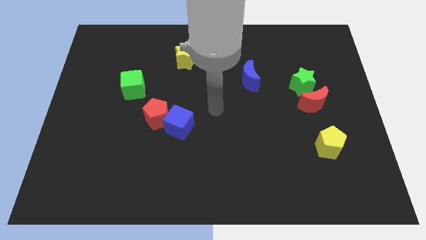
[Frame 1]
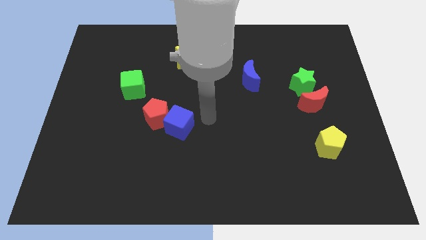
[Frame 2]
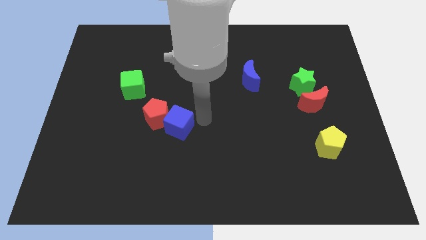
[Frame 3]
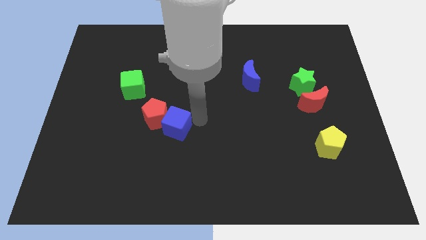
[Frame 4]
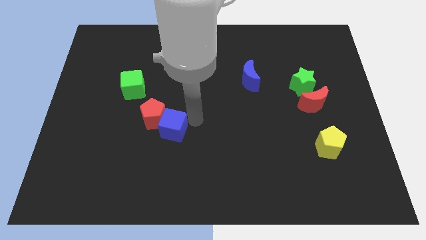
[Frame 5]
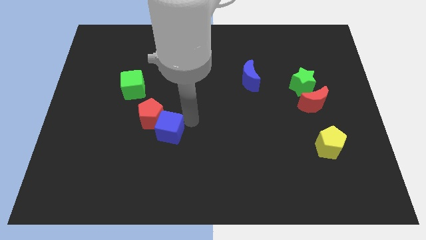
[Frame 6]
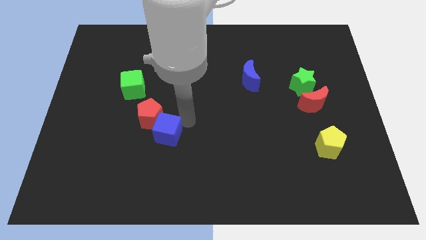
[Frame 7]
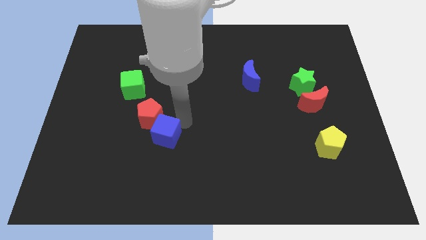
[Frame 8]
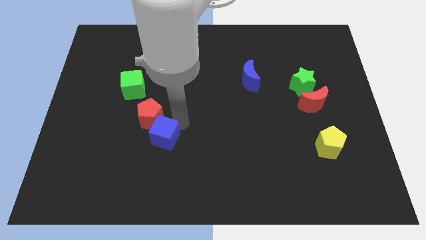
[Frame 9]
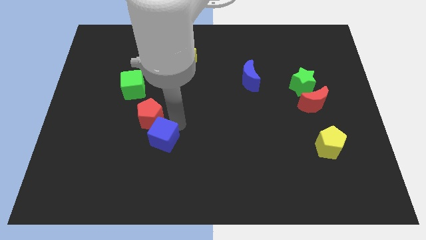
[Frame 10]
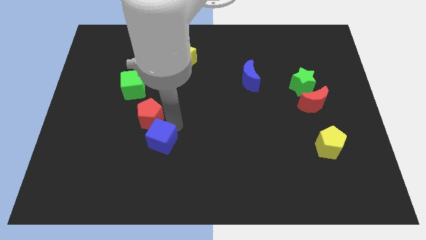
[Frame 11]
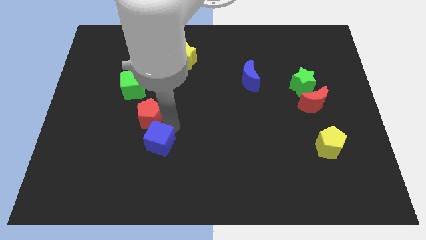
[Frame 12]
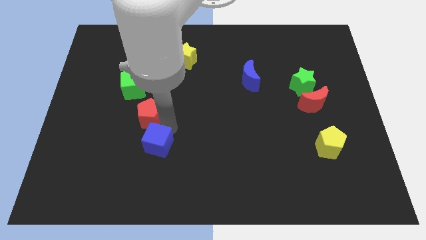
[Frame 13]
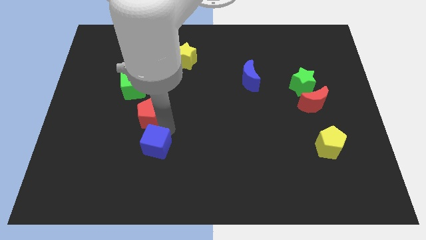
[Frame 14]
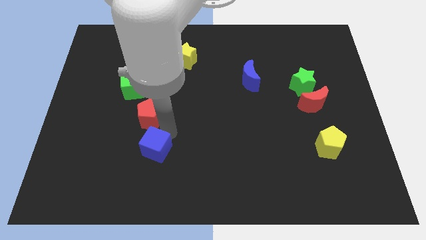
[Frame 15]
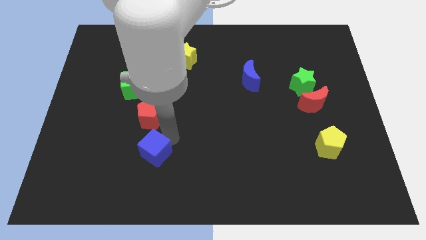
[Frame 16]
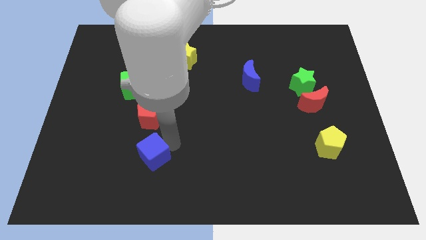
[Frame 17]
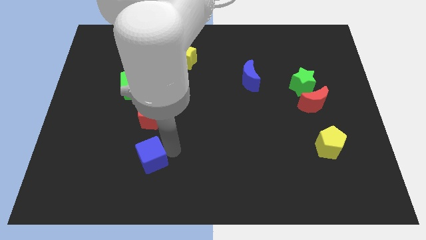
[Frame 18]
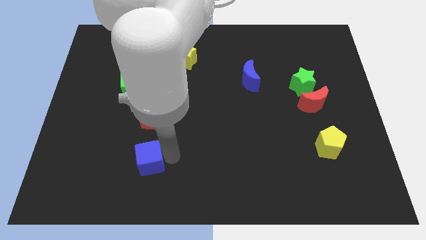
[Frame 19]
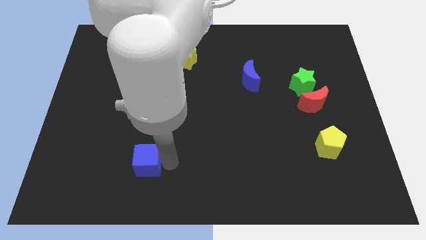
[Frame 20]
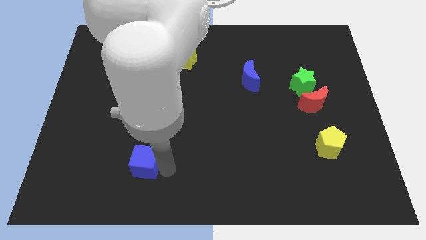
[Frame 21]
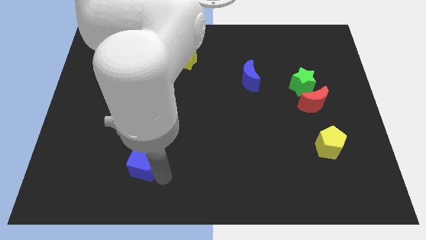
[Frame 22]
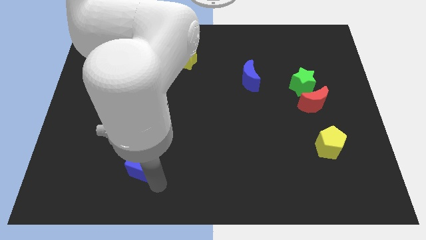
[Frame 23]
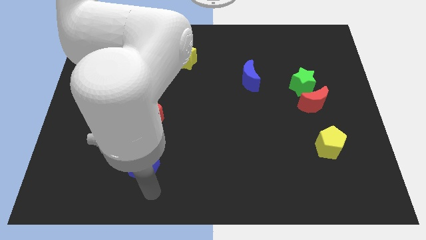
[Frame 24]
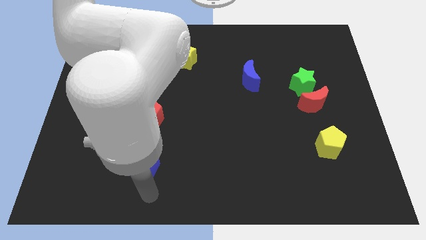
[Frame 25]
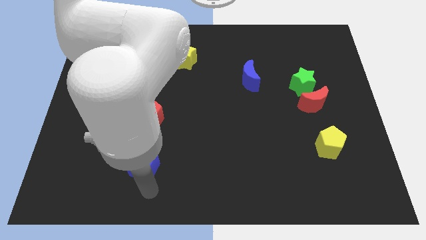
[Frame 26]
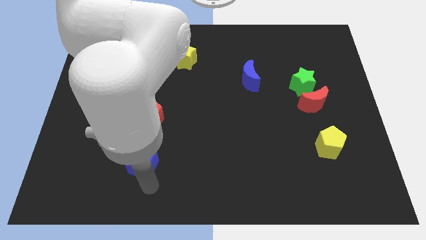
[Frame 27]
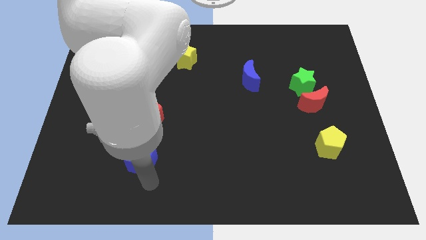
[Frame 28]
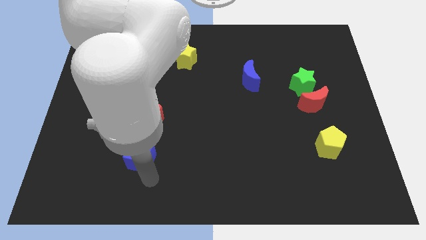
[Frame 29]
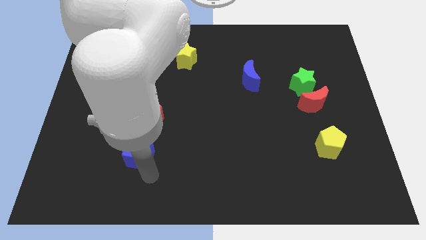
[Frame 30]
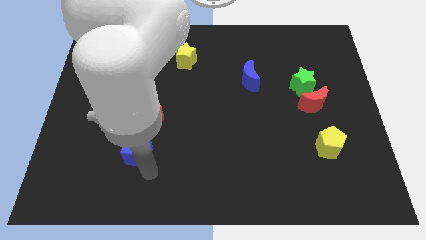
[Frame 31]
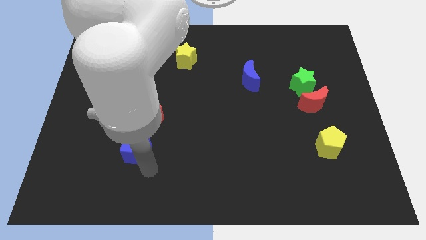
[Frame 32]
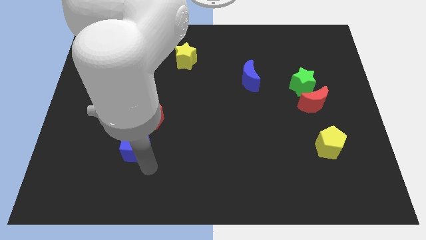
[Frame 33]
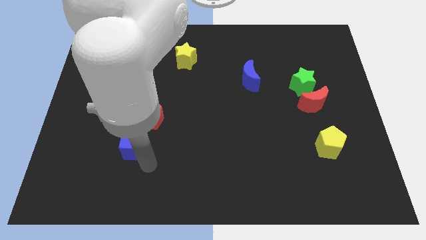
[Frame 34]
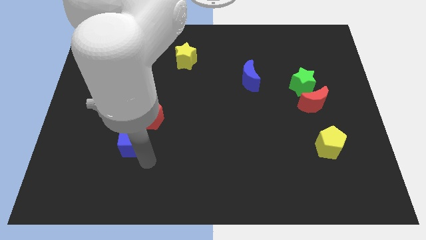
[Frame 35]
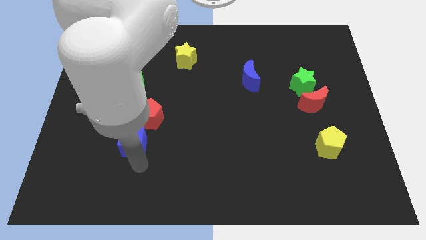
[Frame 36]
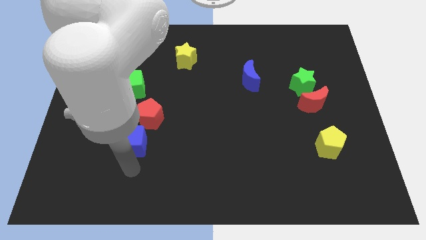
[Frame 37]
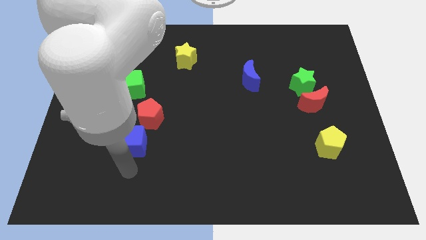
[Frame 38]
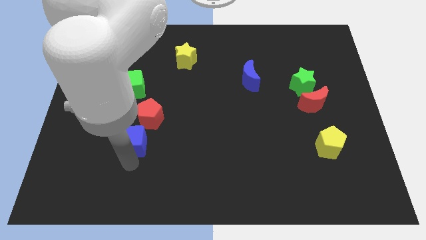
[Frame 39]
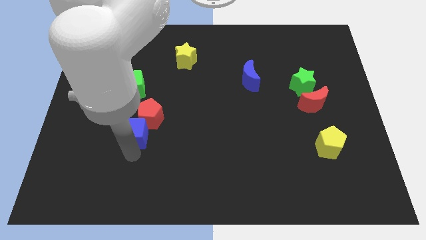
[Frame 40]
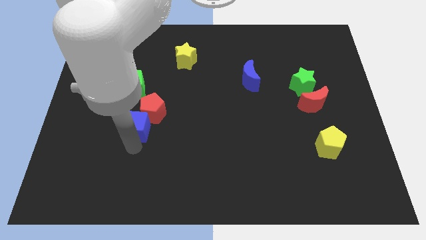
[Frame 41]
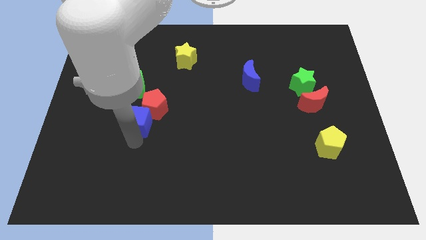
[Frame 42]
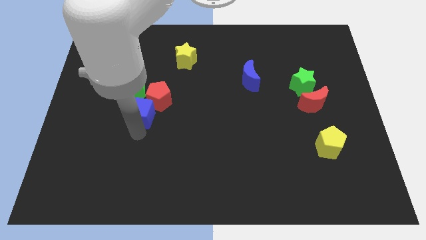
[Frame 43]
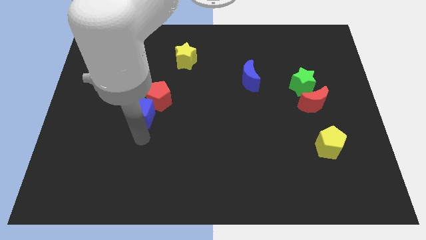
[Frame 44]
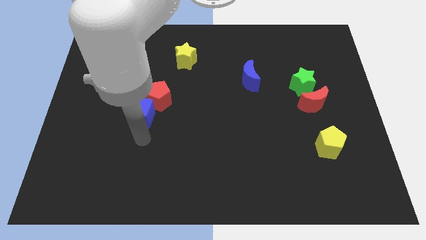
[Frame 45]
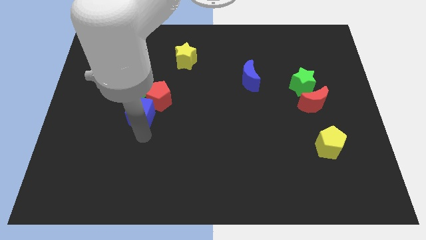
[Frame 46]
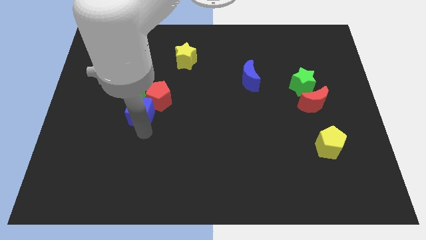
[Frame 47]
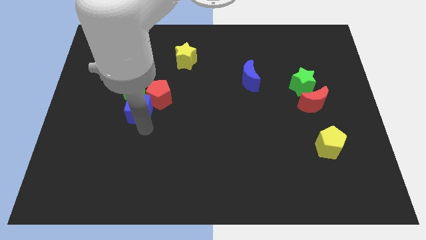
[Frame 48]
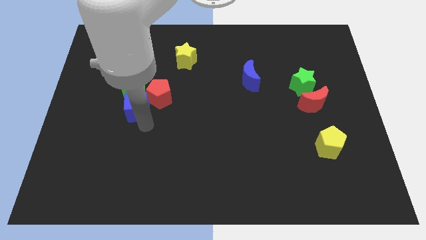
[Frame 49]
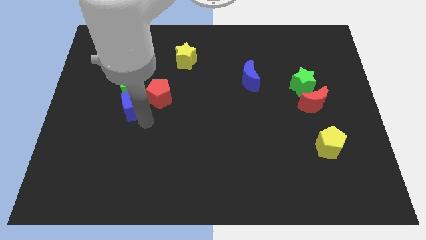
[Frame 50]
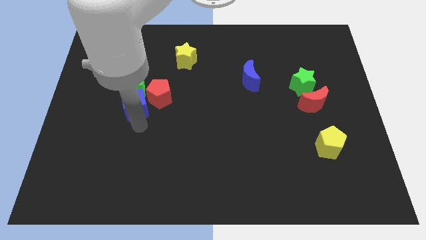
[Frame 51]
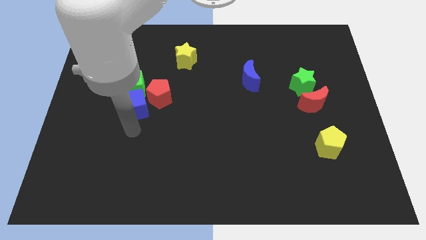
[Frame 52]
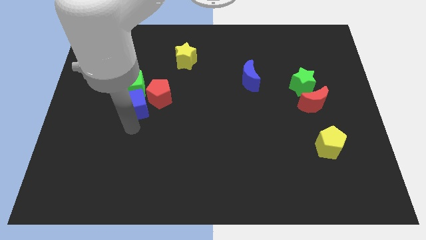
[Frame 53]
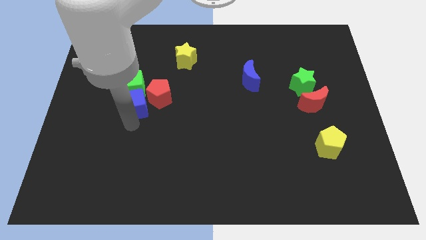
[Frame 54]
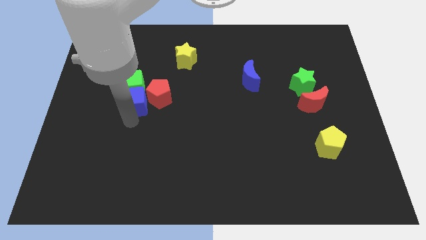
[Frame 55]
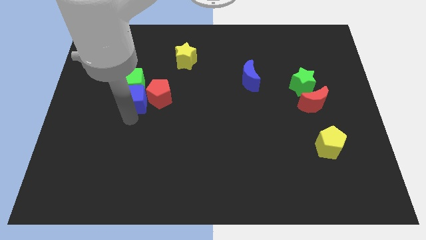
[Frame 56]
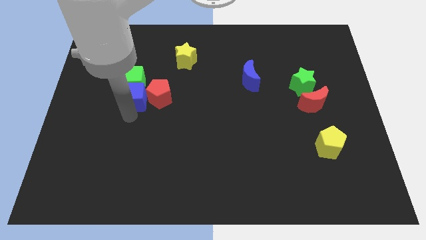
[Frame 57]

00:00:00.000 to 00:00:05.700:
move the blue cube diagonally up and to the left of the red pentagon

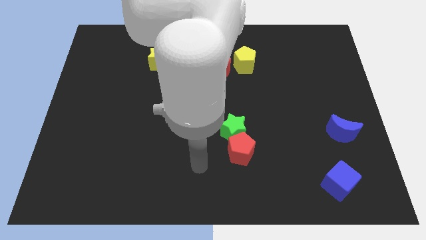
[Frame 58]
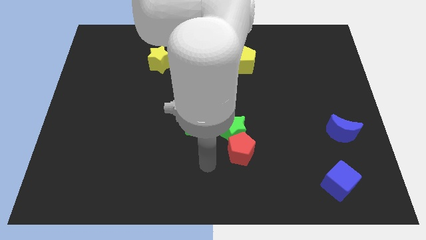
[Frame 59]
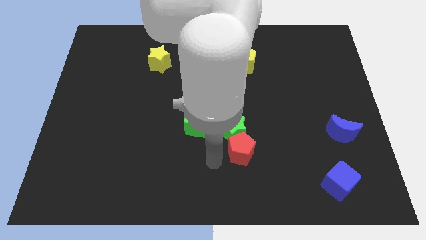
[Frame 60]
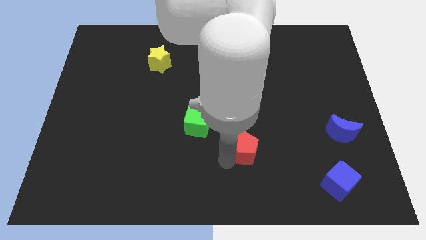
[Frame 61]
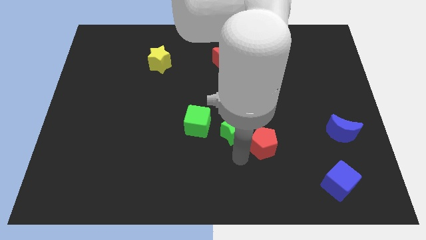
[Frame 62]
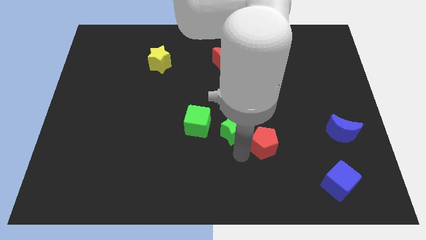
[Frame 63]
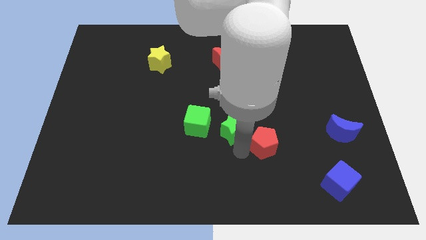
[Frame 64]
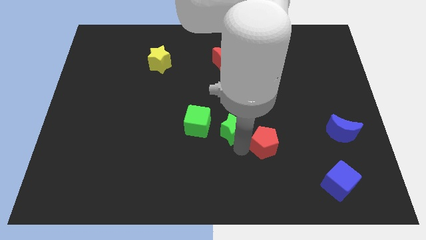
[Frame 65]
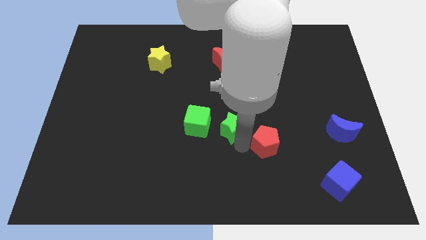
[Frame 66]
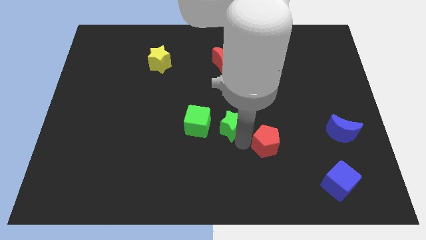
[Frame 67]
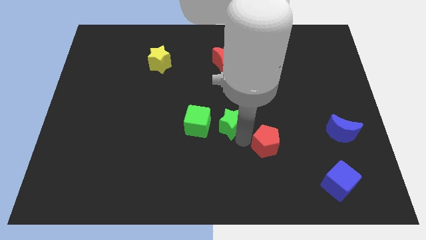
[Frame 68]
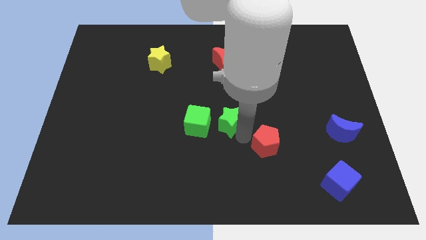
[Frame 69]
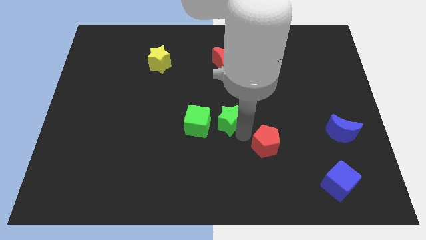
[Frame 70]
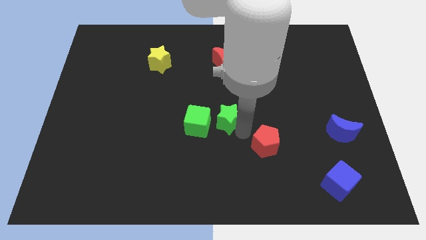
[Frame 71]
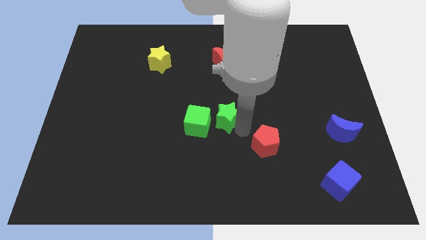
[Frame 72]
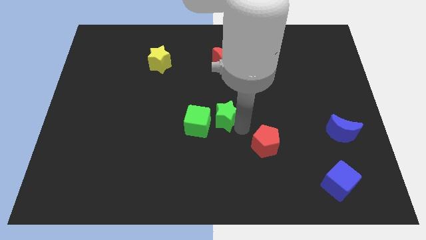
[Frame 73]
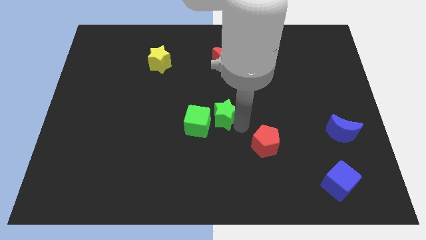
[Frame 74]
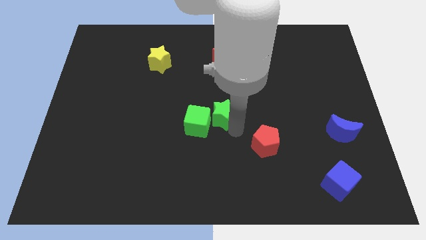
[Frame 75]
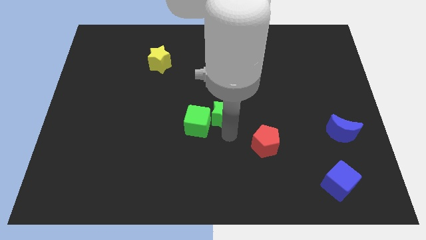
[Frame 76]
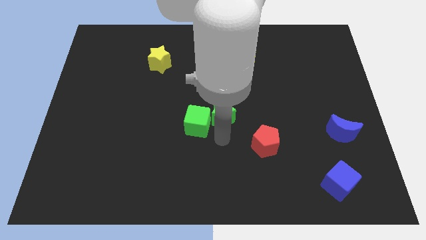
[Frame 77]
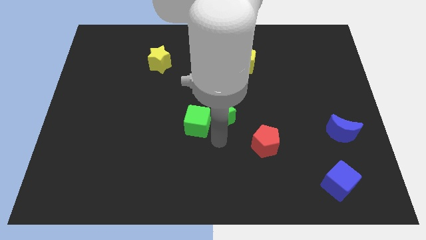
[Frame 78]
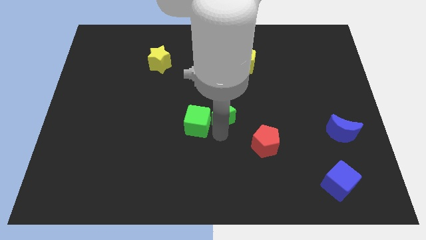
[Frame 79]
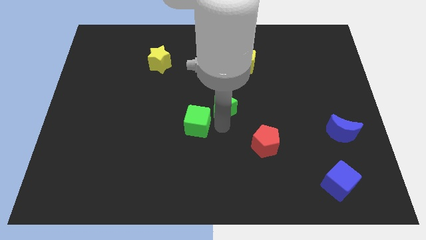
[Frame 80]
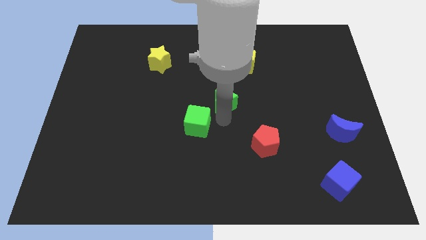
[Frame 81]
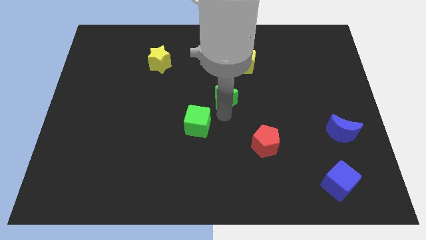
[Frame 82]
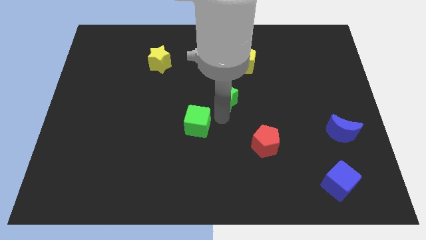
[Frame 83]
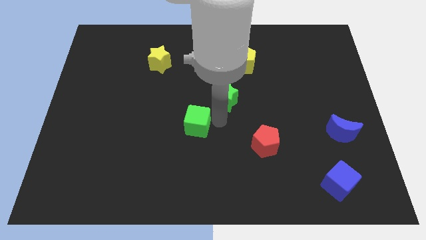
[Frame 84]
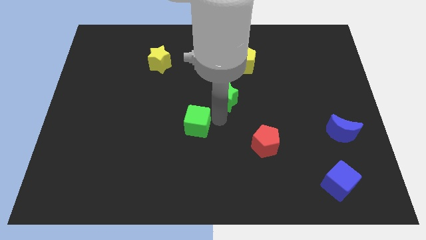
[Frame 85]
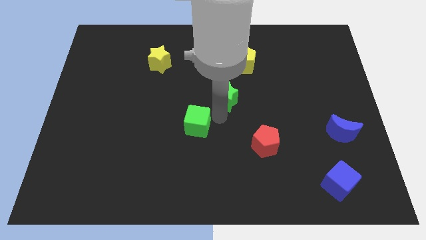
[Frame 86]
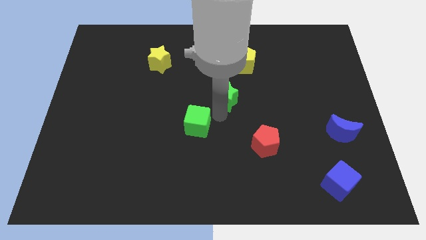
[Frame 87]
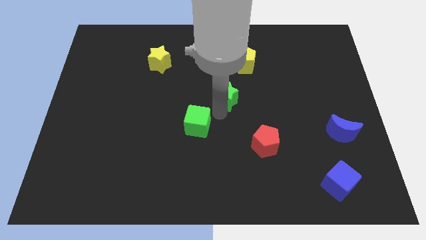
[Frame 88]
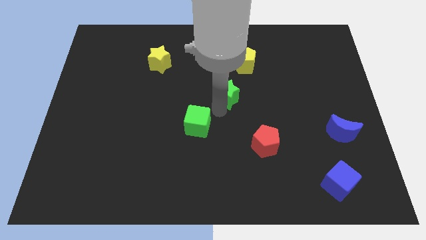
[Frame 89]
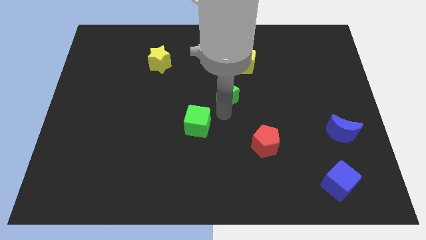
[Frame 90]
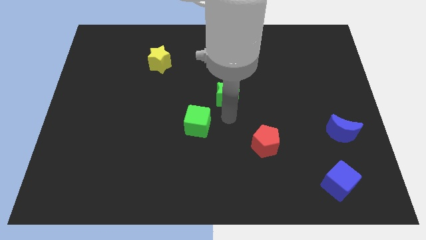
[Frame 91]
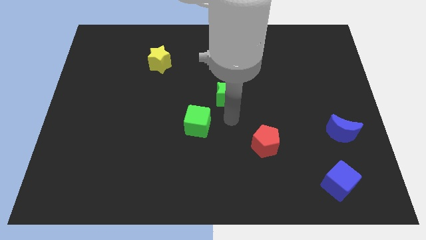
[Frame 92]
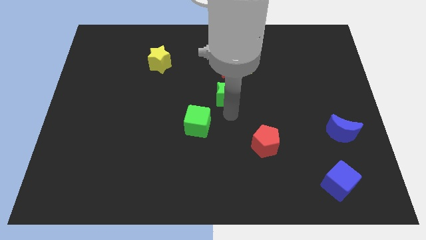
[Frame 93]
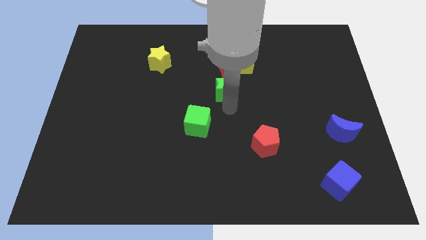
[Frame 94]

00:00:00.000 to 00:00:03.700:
push the green star to the bottom left of the yellow pentagon
